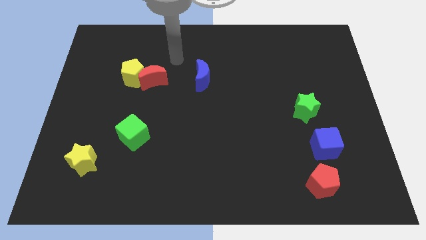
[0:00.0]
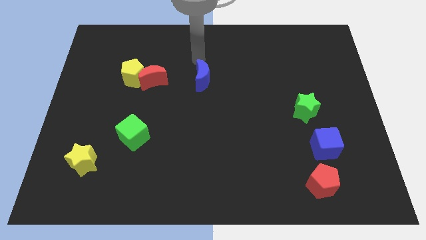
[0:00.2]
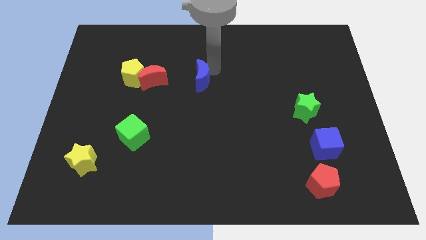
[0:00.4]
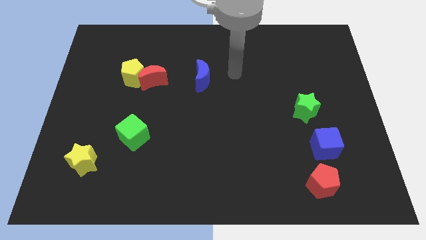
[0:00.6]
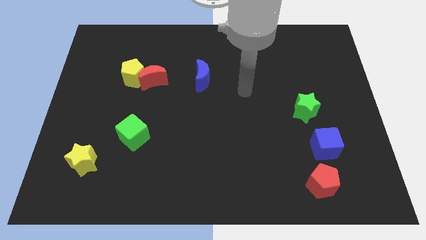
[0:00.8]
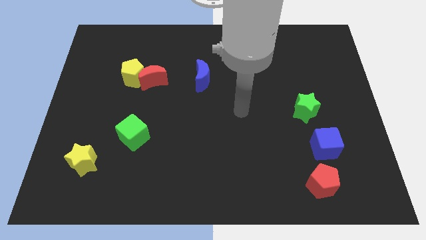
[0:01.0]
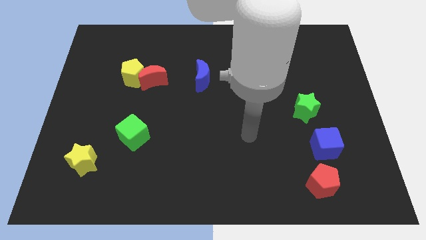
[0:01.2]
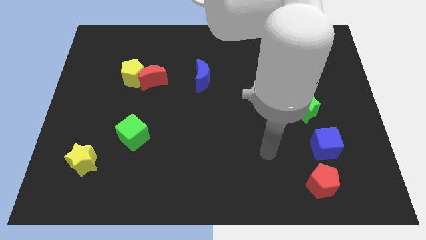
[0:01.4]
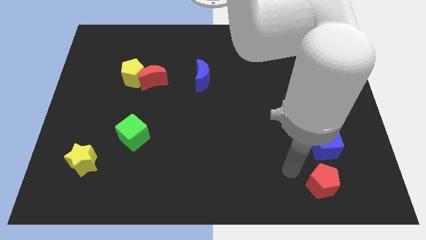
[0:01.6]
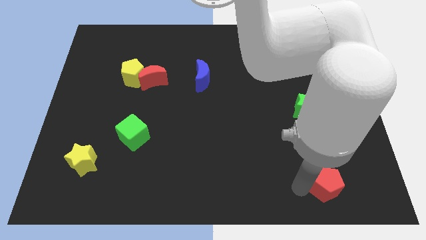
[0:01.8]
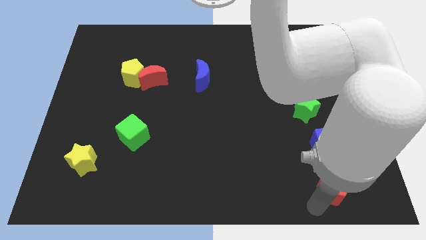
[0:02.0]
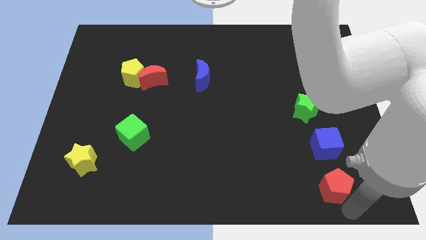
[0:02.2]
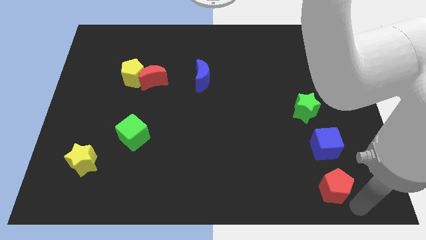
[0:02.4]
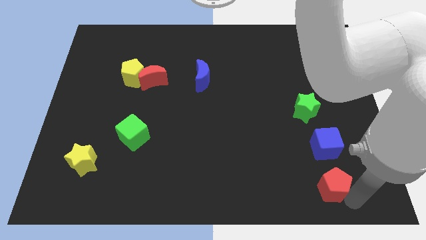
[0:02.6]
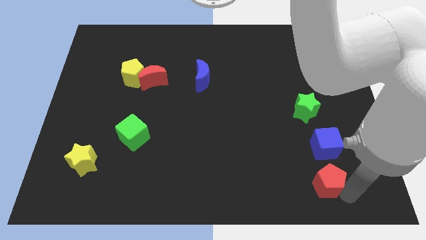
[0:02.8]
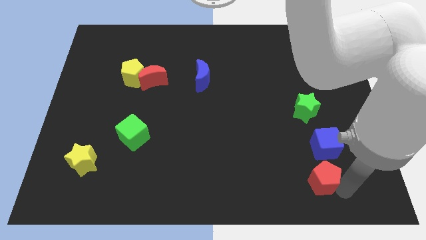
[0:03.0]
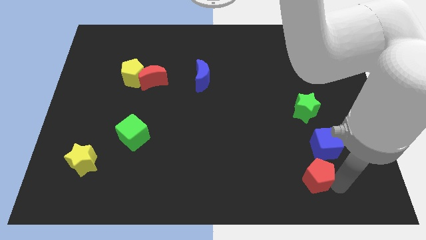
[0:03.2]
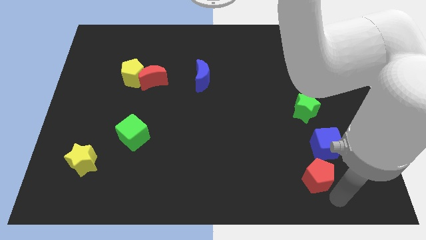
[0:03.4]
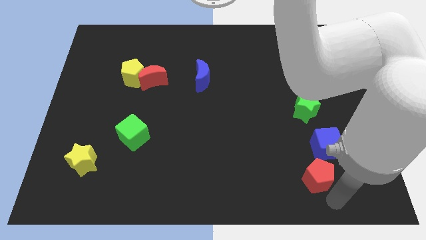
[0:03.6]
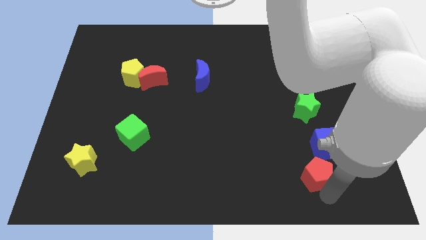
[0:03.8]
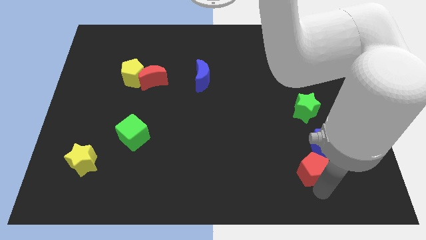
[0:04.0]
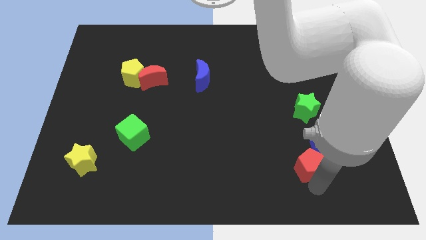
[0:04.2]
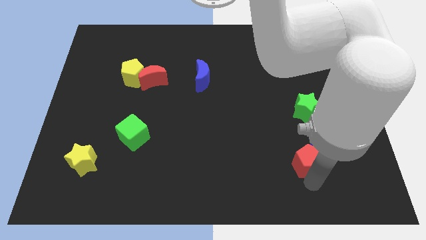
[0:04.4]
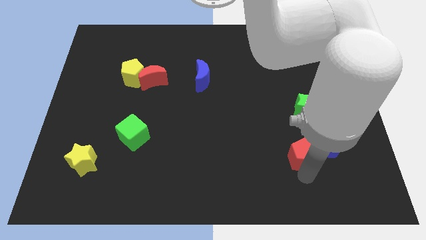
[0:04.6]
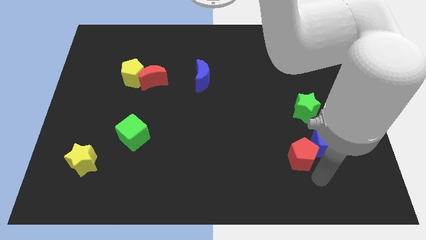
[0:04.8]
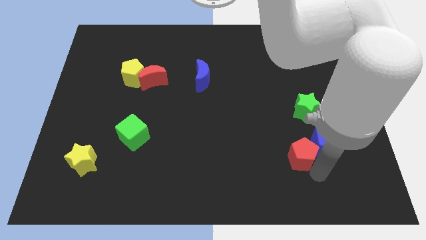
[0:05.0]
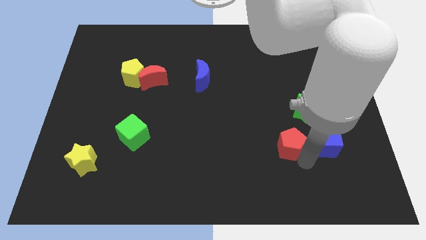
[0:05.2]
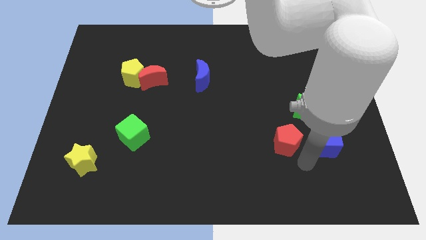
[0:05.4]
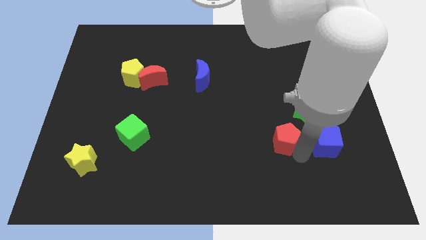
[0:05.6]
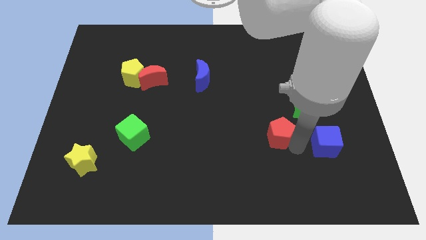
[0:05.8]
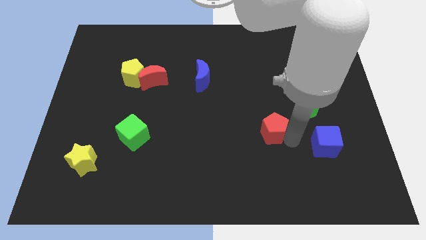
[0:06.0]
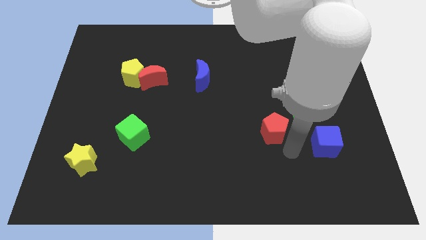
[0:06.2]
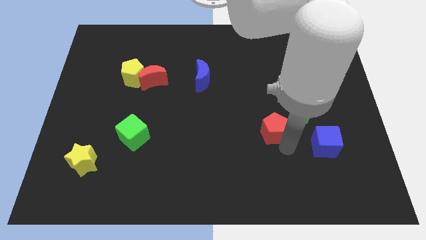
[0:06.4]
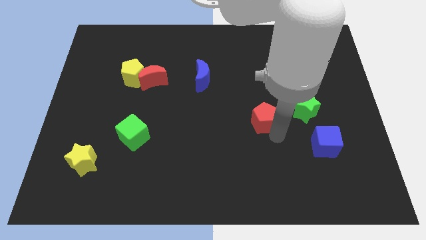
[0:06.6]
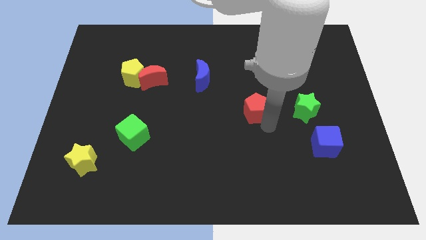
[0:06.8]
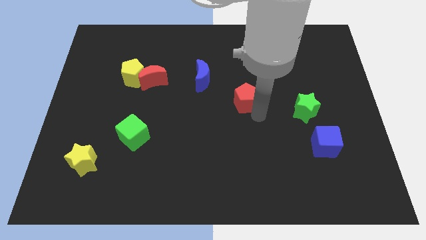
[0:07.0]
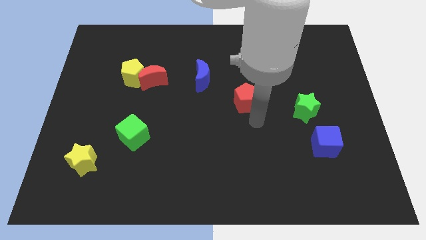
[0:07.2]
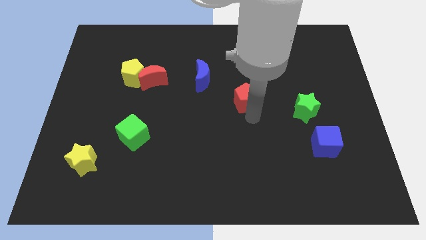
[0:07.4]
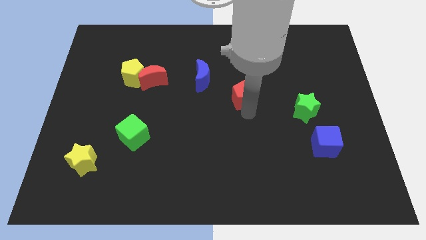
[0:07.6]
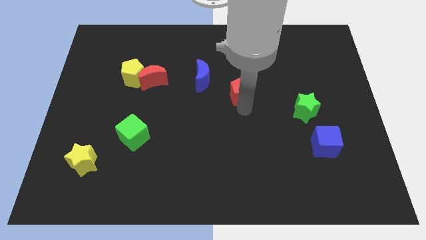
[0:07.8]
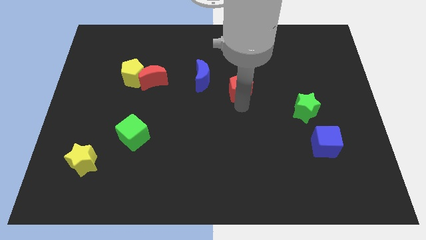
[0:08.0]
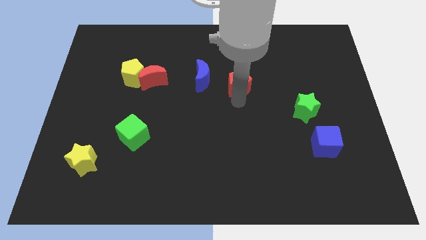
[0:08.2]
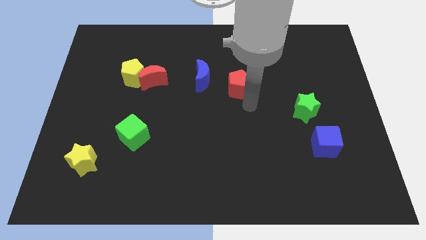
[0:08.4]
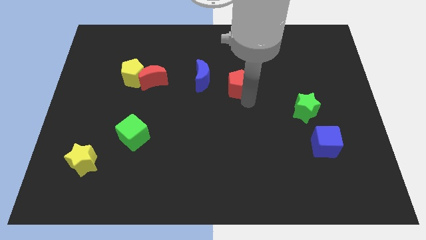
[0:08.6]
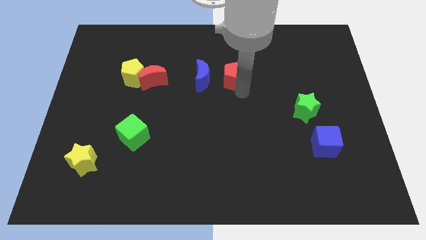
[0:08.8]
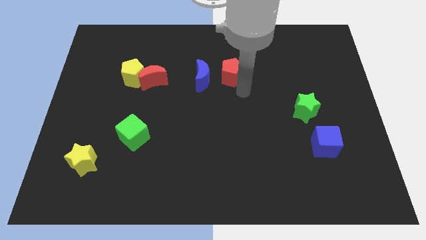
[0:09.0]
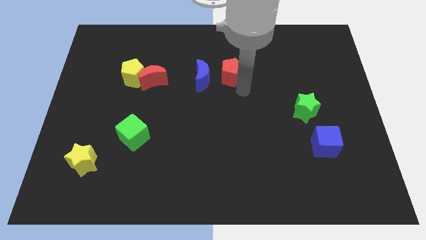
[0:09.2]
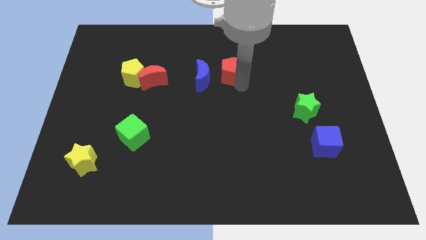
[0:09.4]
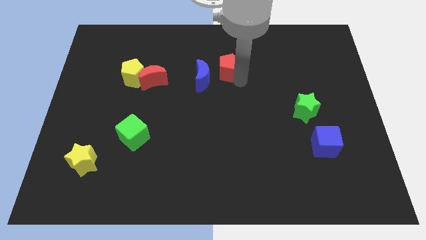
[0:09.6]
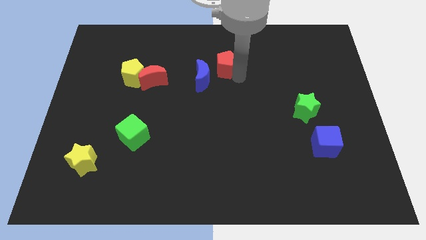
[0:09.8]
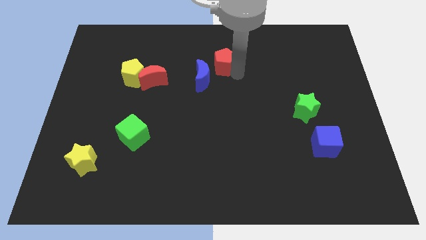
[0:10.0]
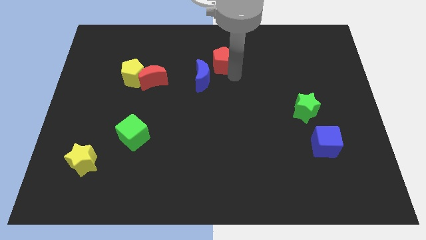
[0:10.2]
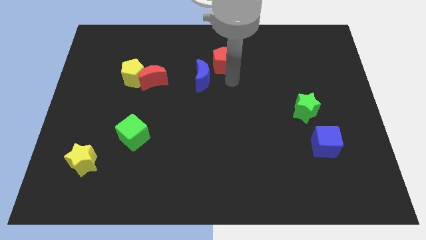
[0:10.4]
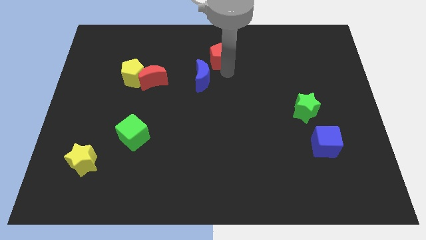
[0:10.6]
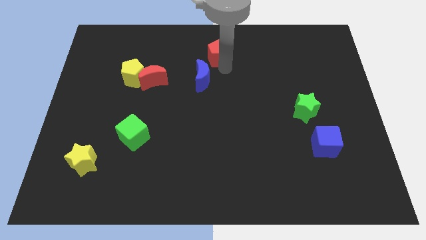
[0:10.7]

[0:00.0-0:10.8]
put the red pentagon to the top side

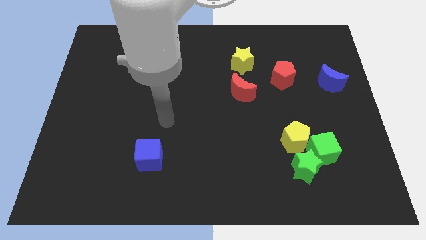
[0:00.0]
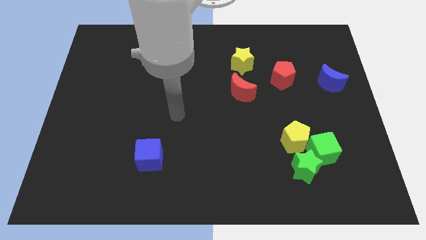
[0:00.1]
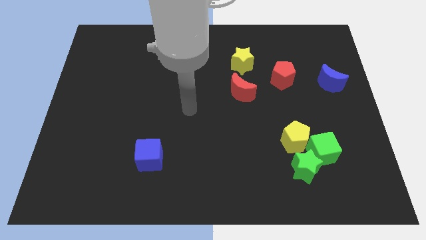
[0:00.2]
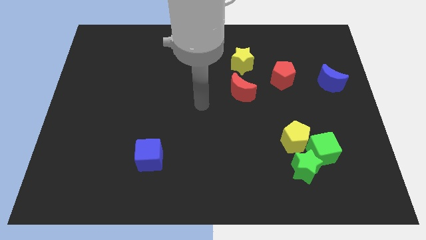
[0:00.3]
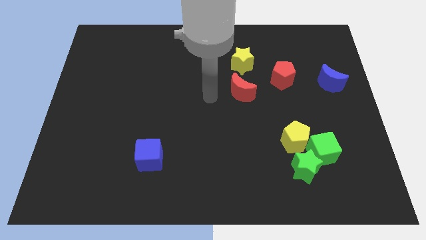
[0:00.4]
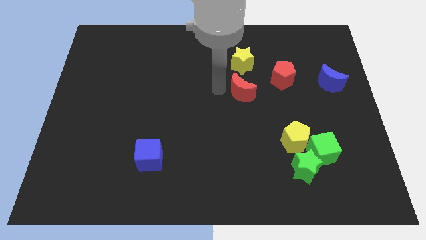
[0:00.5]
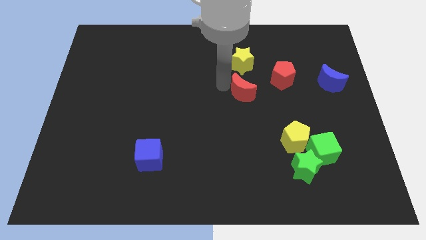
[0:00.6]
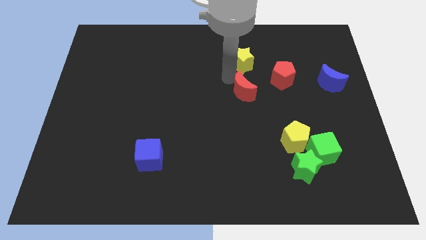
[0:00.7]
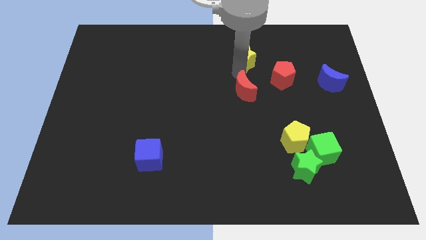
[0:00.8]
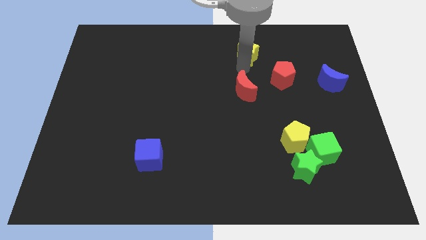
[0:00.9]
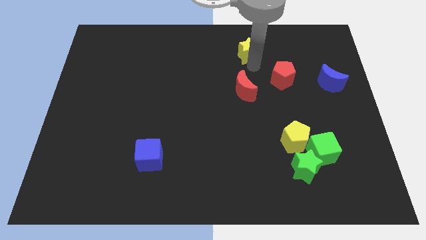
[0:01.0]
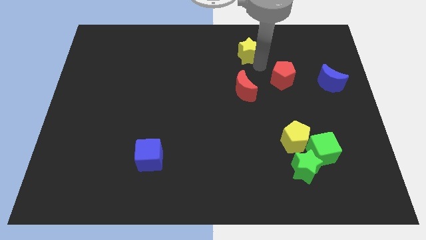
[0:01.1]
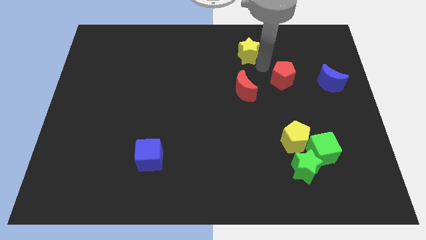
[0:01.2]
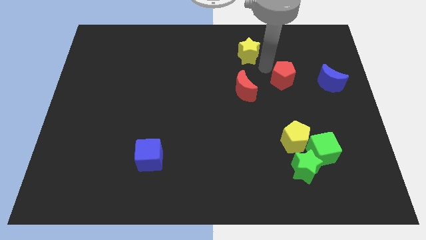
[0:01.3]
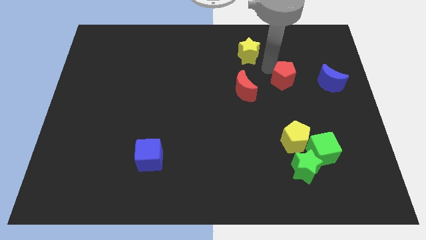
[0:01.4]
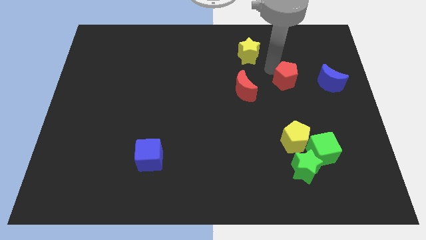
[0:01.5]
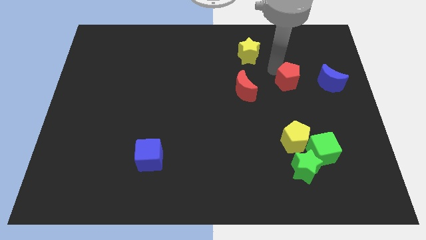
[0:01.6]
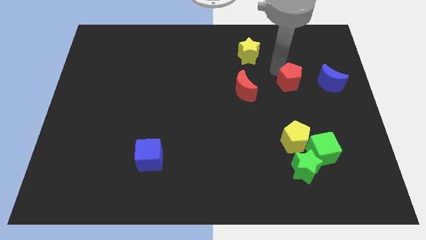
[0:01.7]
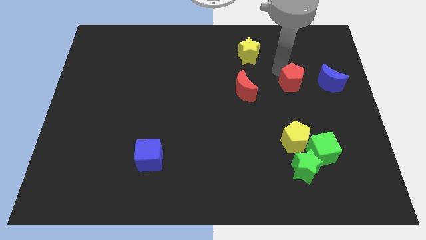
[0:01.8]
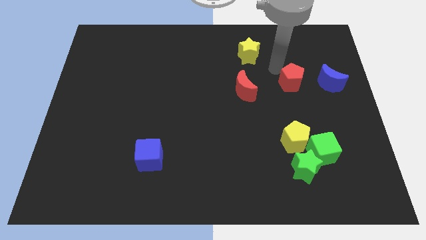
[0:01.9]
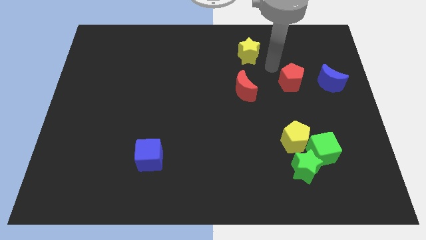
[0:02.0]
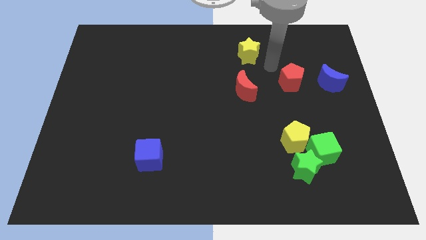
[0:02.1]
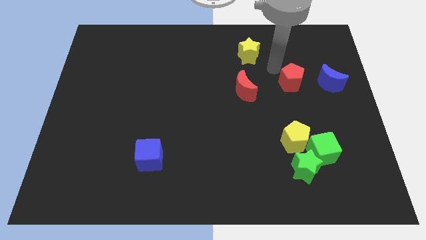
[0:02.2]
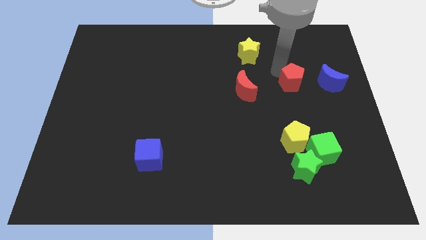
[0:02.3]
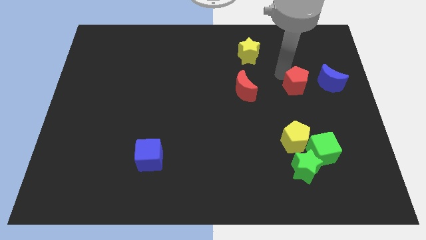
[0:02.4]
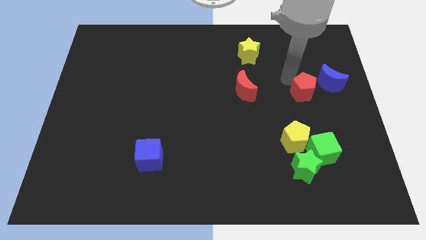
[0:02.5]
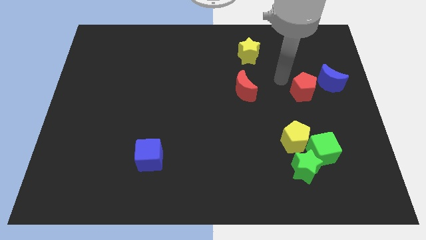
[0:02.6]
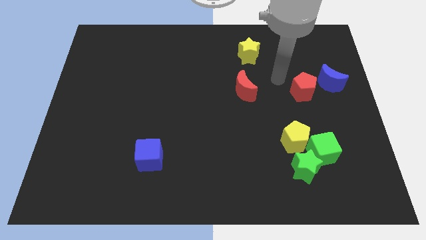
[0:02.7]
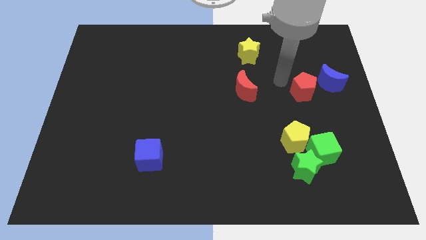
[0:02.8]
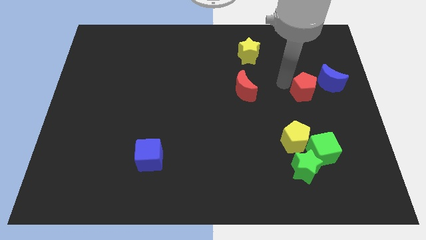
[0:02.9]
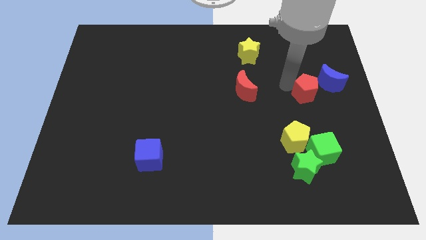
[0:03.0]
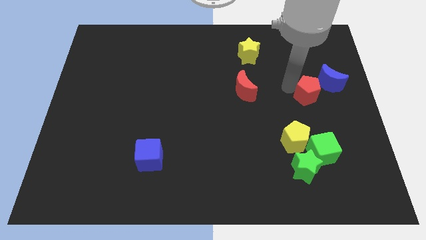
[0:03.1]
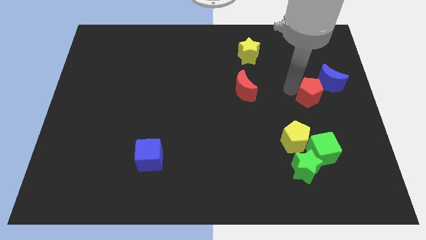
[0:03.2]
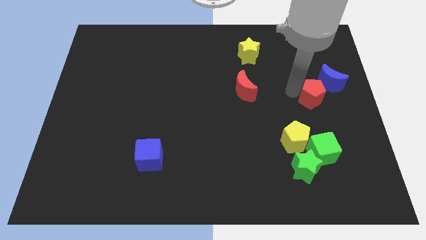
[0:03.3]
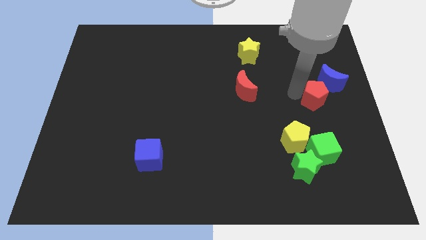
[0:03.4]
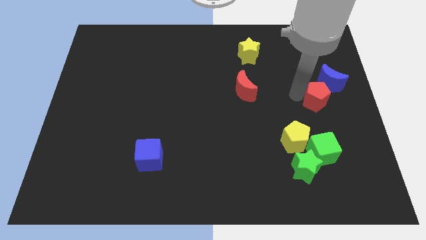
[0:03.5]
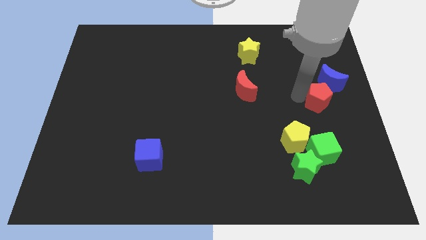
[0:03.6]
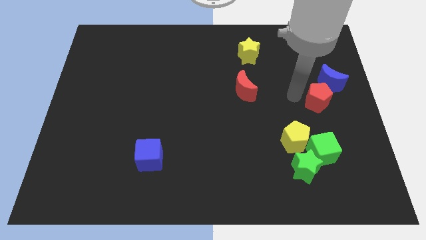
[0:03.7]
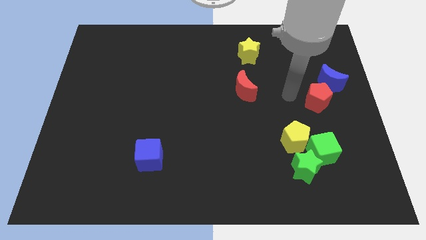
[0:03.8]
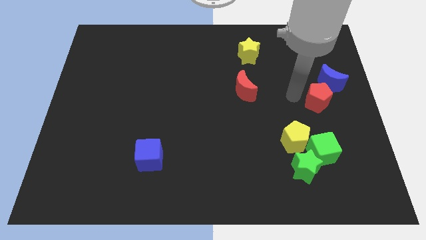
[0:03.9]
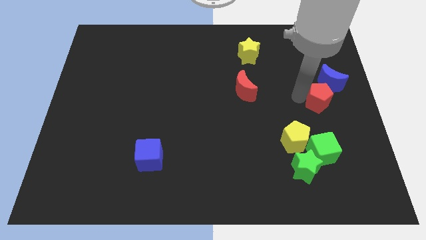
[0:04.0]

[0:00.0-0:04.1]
put the red pentagon to the right side
